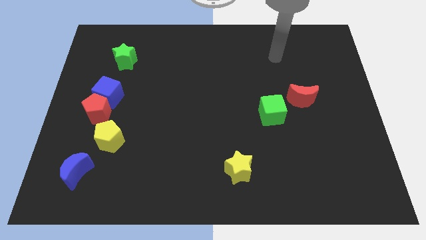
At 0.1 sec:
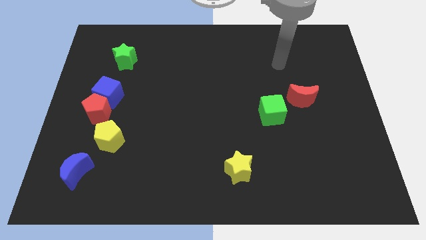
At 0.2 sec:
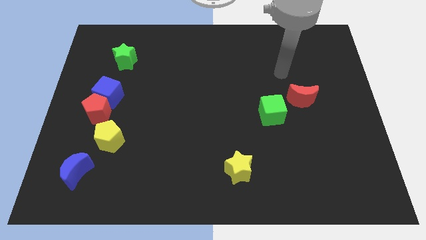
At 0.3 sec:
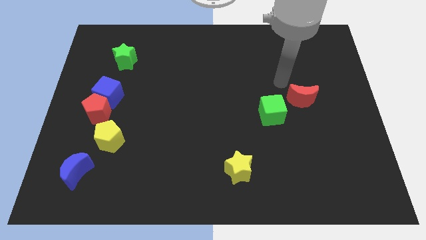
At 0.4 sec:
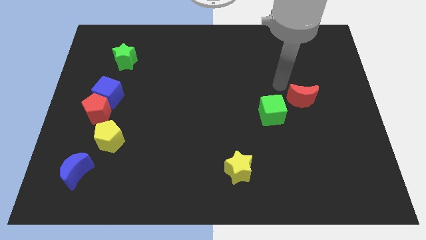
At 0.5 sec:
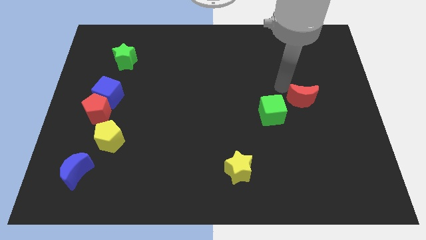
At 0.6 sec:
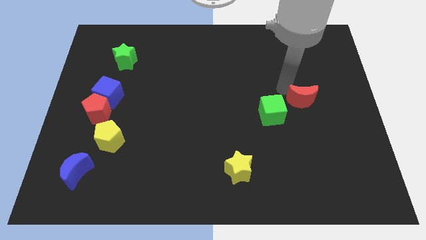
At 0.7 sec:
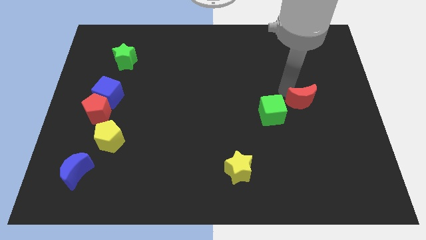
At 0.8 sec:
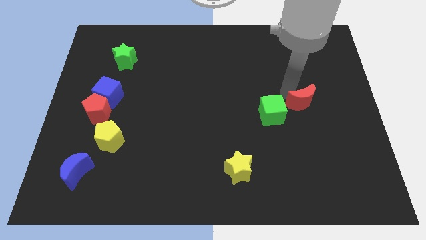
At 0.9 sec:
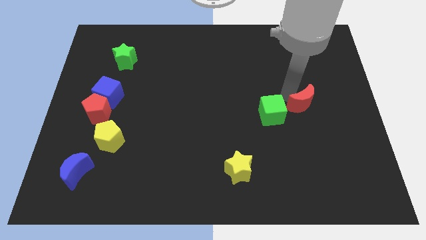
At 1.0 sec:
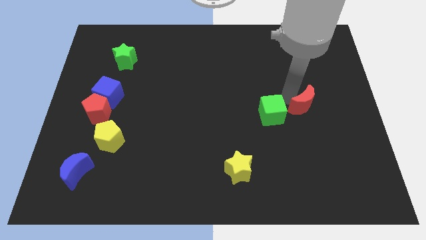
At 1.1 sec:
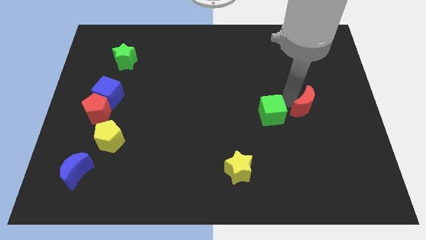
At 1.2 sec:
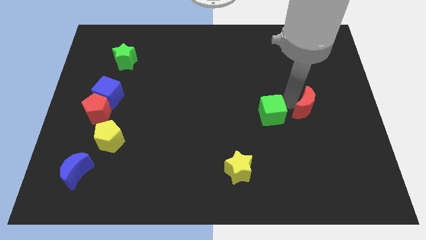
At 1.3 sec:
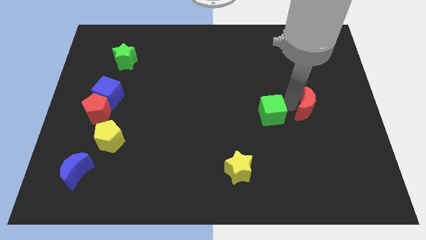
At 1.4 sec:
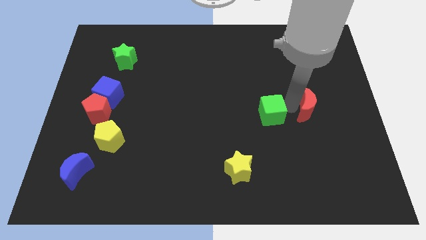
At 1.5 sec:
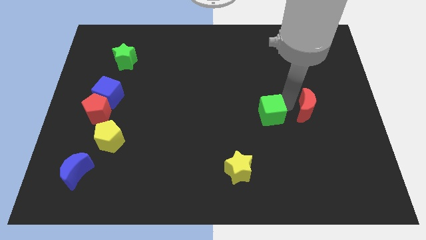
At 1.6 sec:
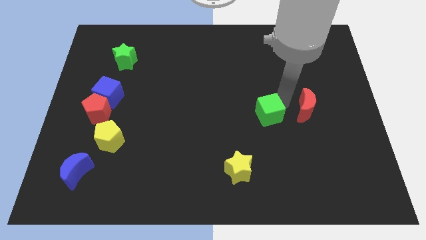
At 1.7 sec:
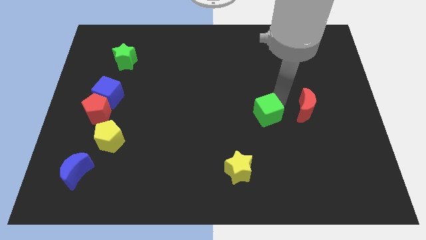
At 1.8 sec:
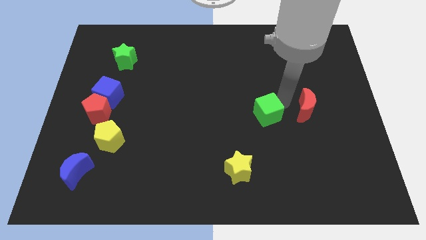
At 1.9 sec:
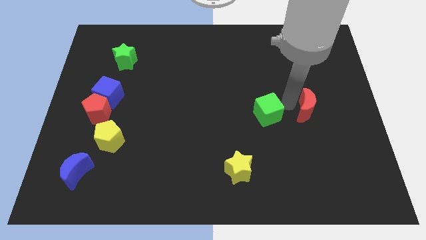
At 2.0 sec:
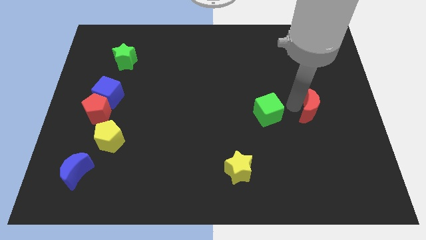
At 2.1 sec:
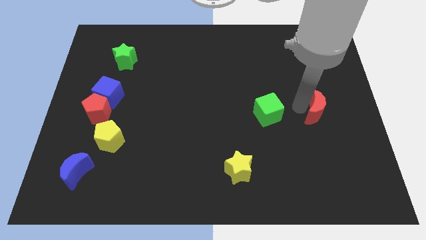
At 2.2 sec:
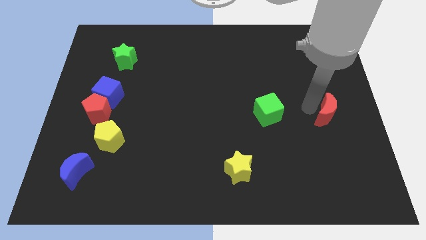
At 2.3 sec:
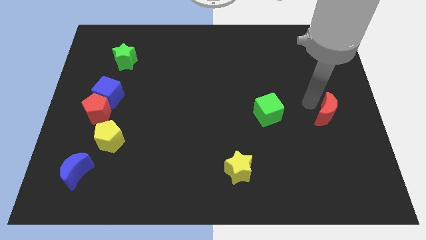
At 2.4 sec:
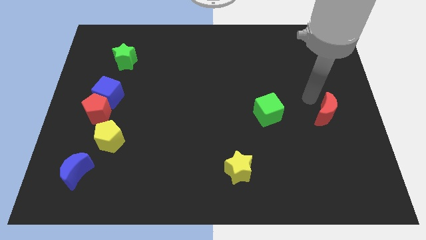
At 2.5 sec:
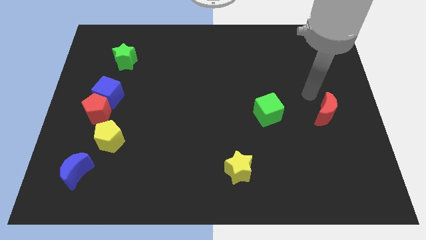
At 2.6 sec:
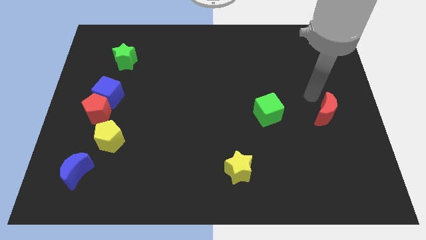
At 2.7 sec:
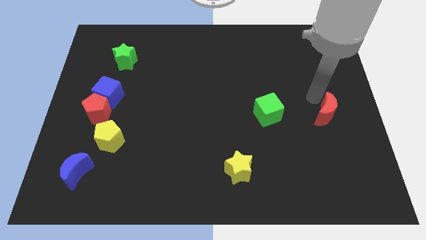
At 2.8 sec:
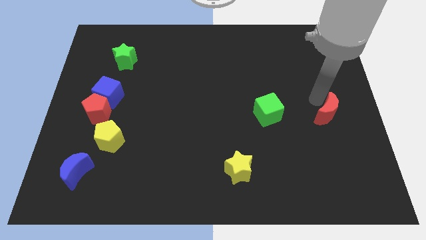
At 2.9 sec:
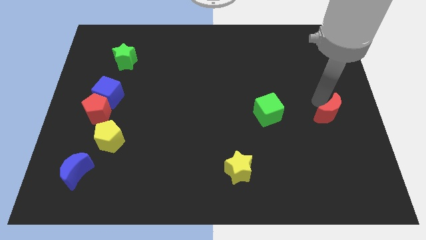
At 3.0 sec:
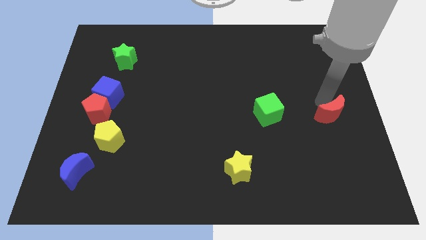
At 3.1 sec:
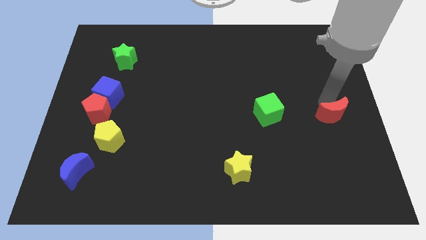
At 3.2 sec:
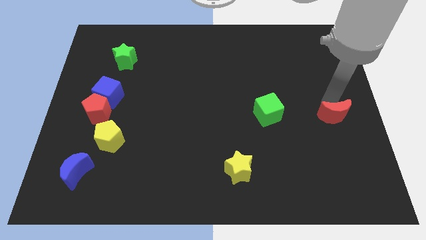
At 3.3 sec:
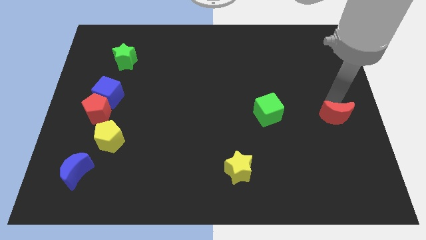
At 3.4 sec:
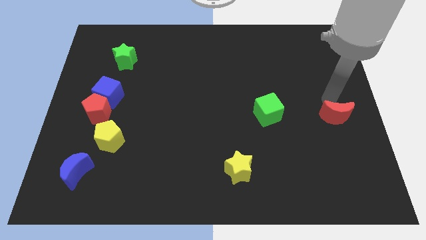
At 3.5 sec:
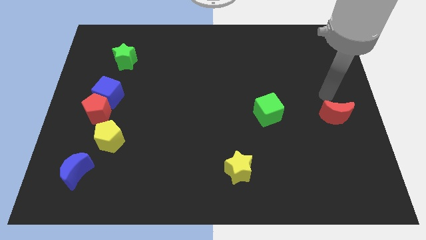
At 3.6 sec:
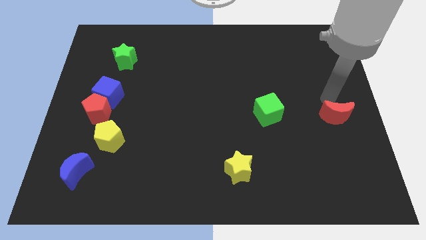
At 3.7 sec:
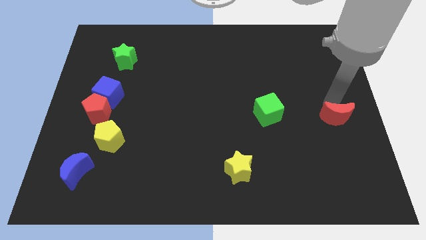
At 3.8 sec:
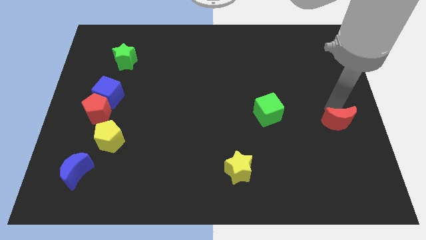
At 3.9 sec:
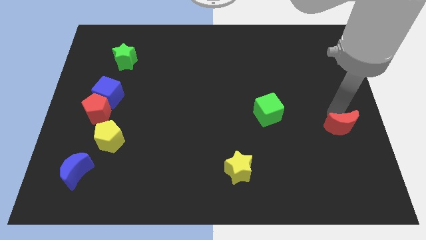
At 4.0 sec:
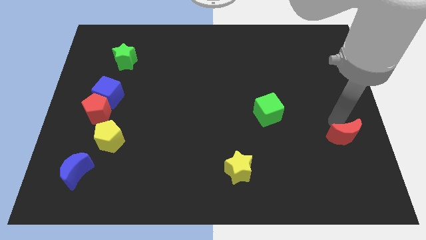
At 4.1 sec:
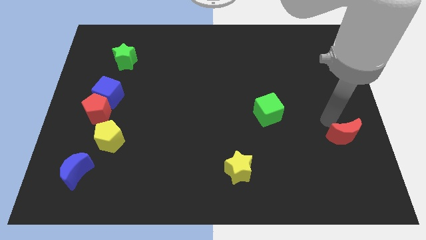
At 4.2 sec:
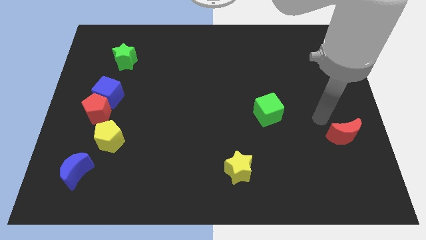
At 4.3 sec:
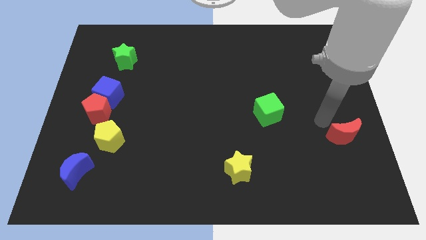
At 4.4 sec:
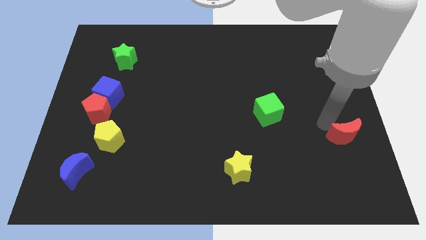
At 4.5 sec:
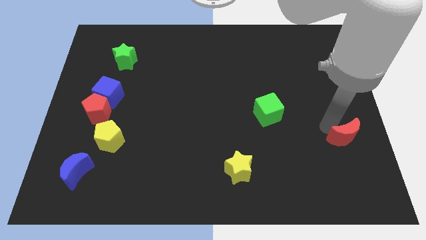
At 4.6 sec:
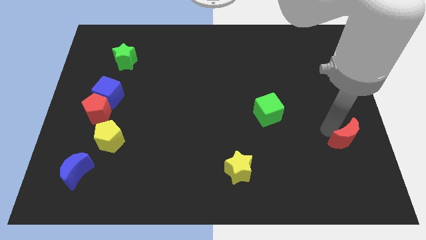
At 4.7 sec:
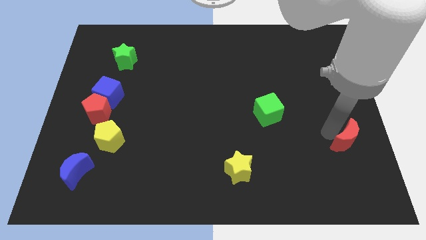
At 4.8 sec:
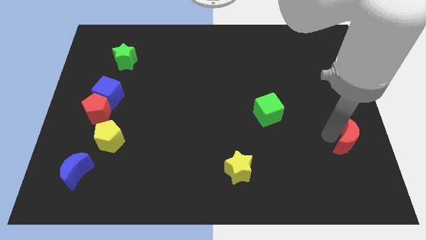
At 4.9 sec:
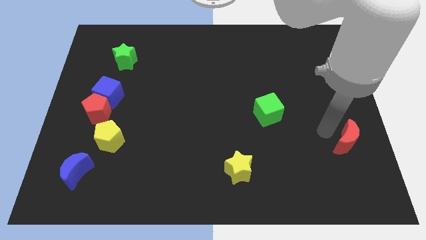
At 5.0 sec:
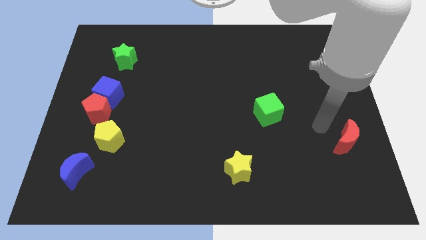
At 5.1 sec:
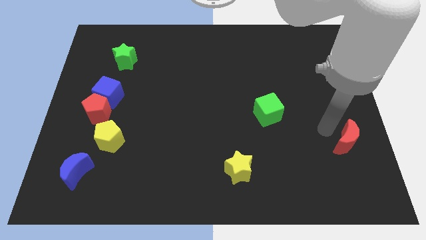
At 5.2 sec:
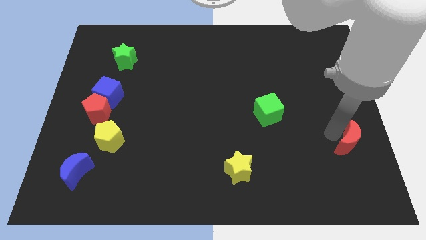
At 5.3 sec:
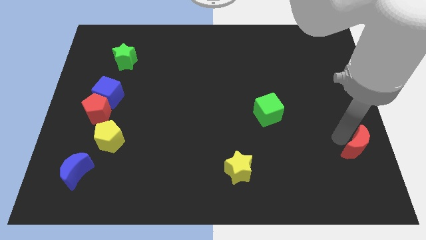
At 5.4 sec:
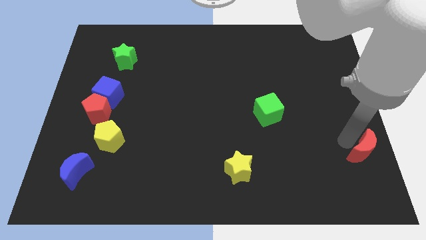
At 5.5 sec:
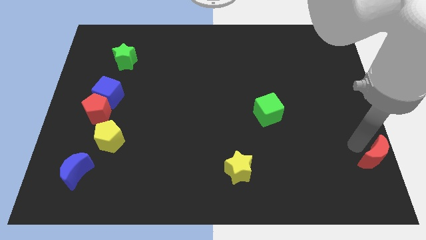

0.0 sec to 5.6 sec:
slide the red moon to the bottom right of the board
